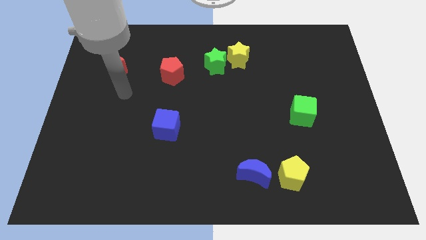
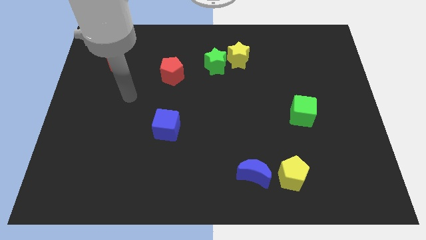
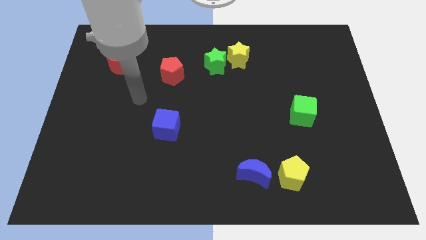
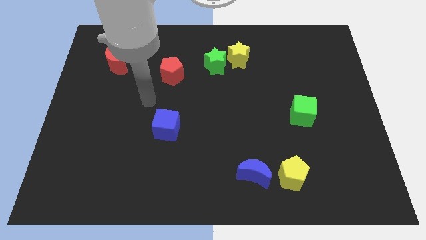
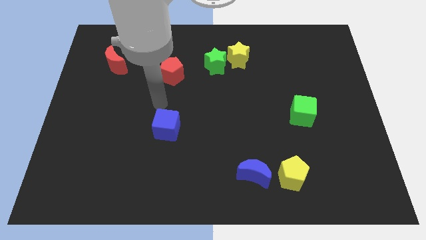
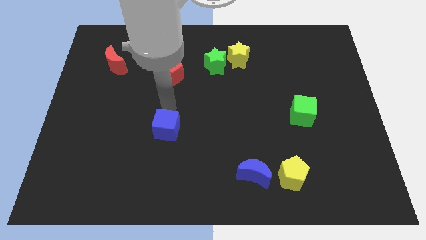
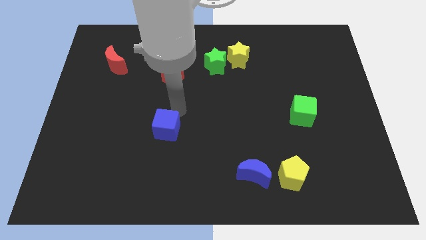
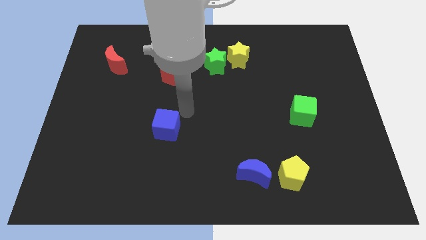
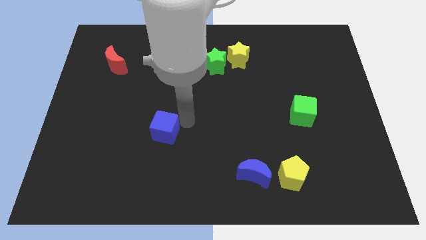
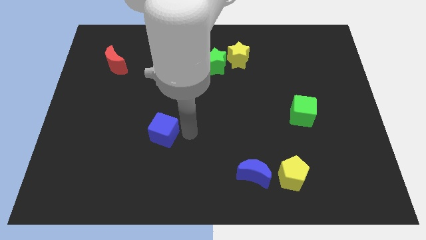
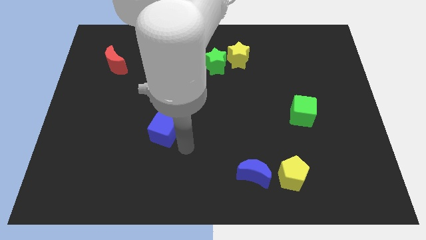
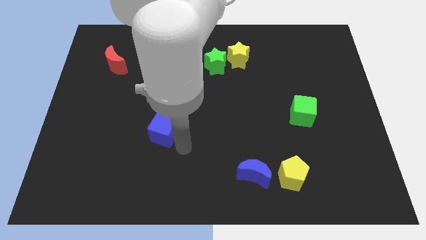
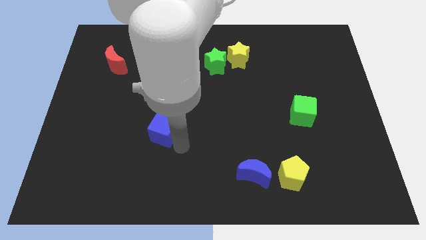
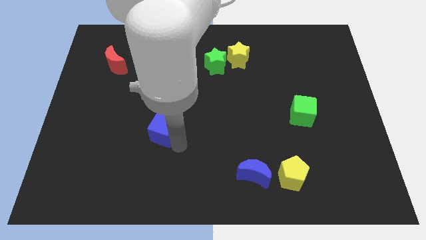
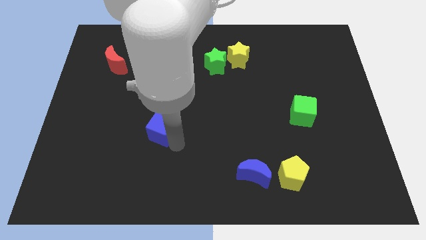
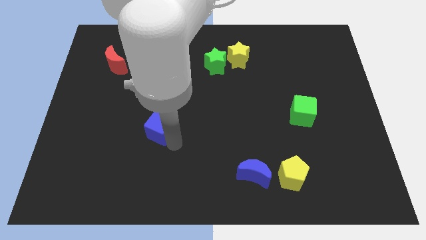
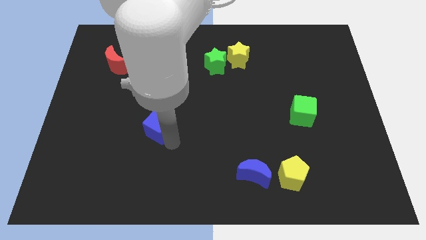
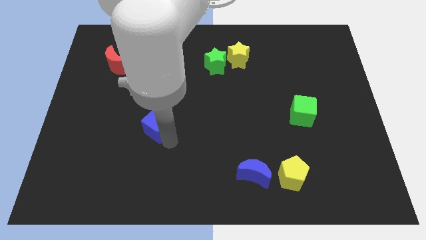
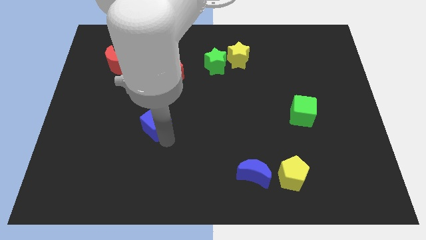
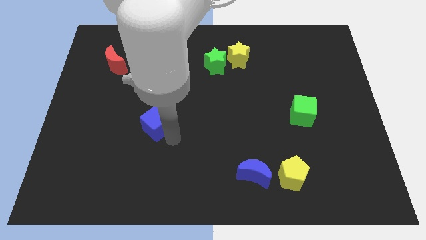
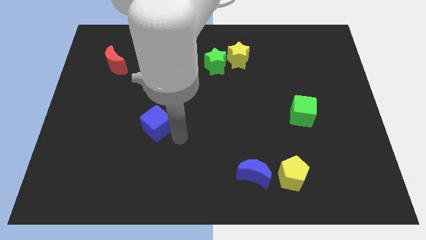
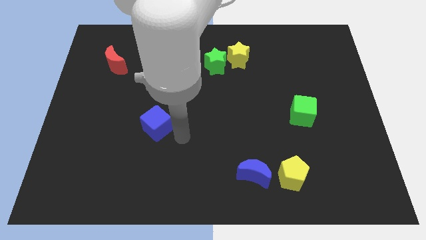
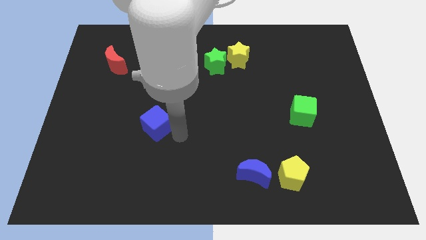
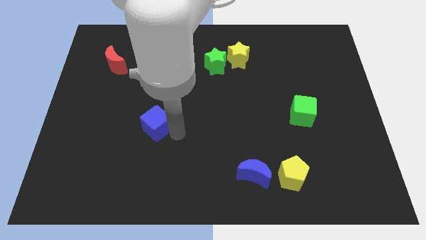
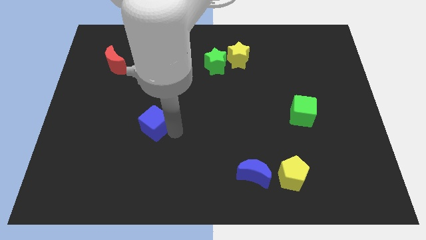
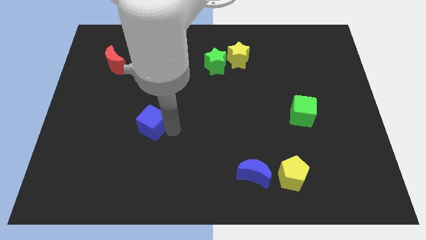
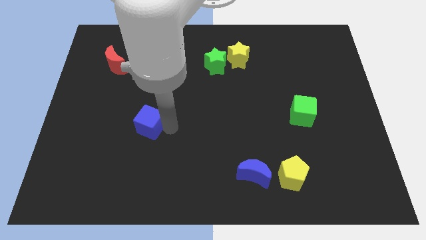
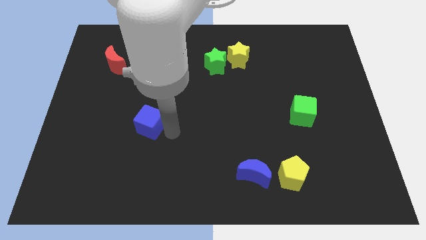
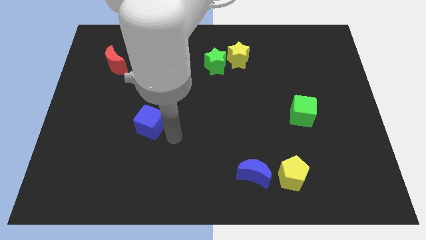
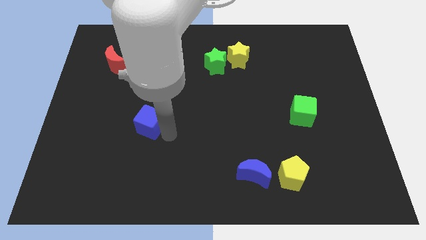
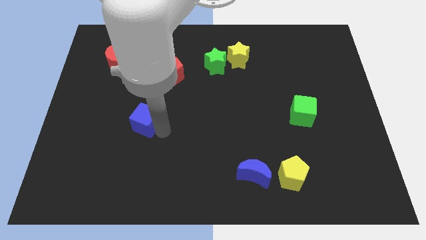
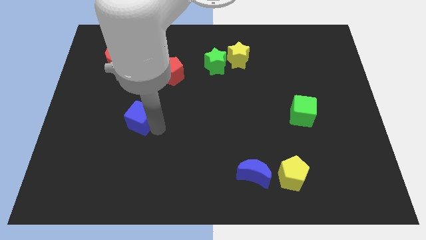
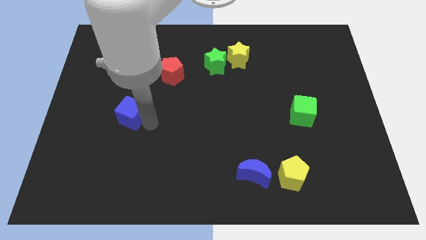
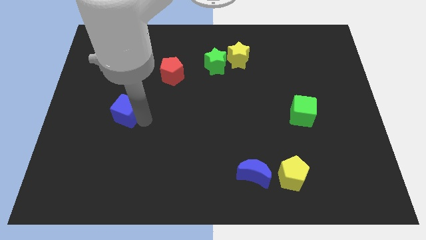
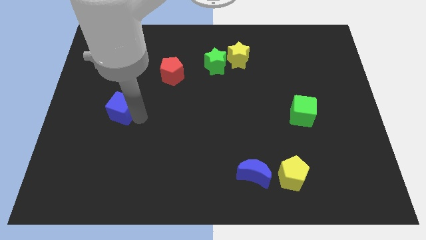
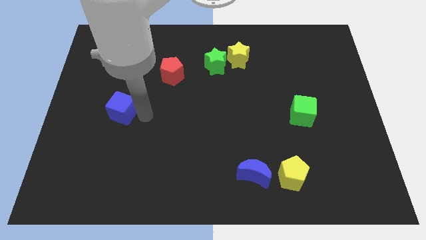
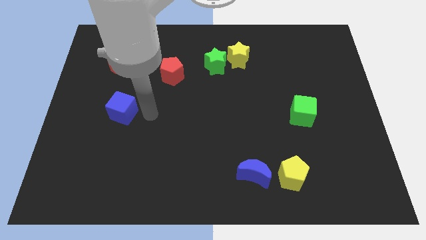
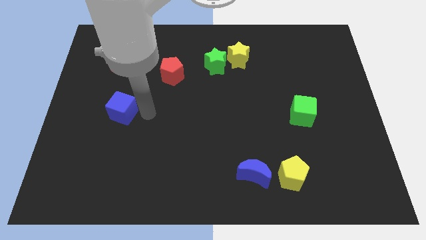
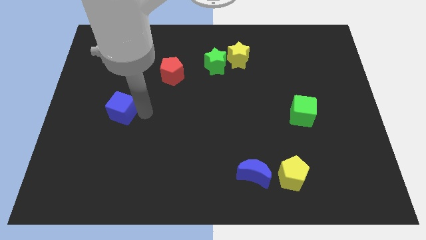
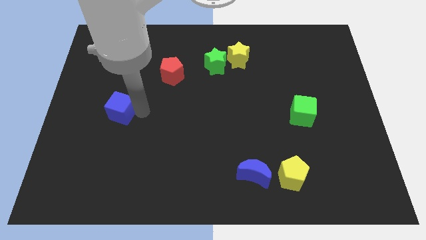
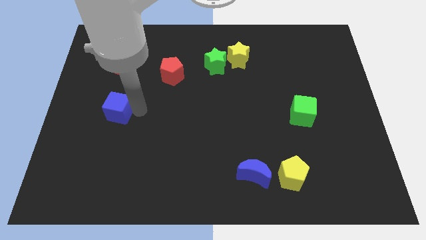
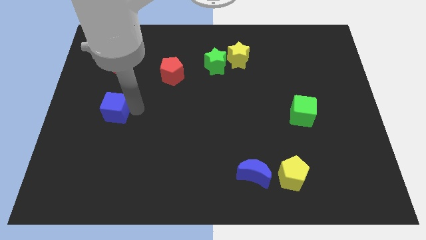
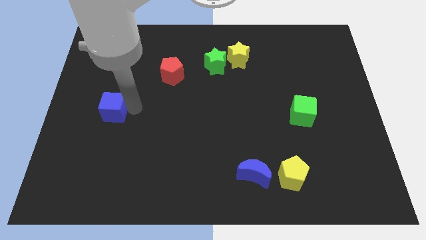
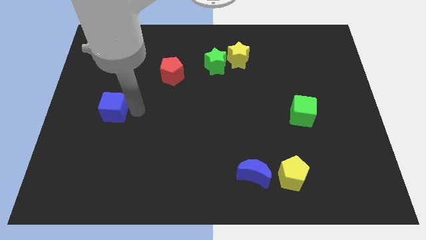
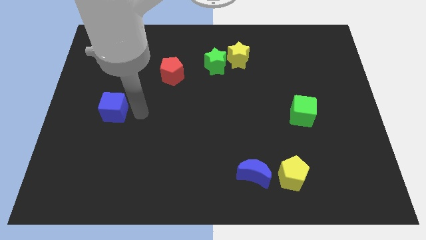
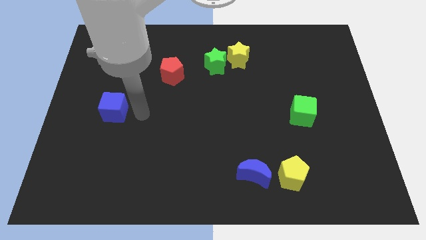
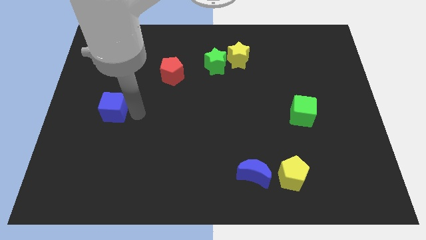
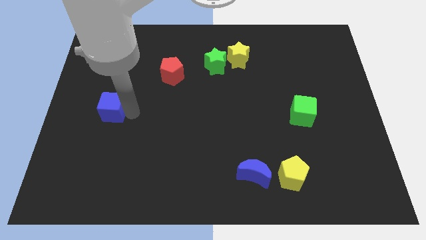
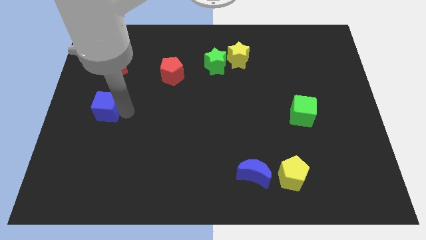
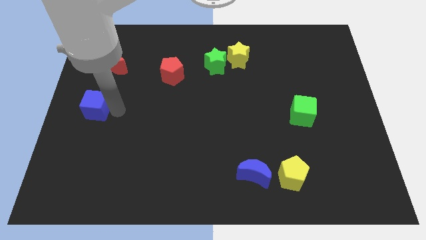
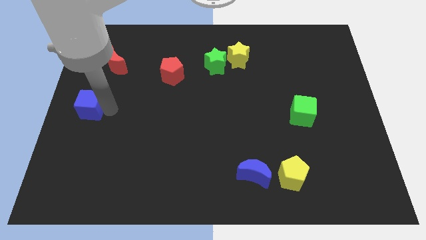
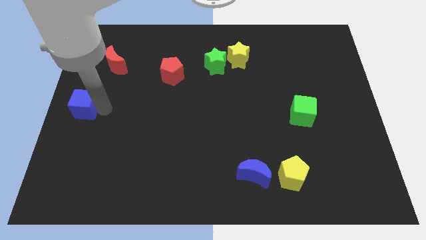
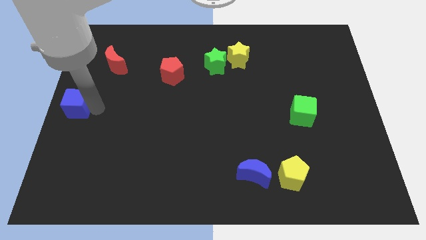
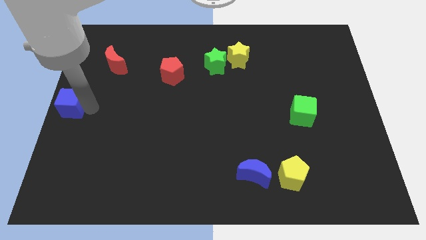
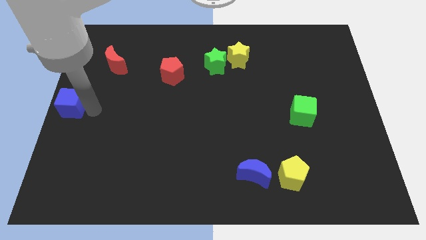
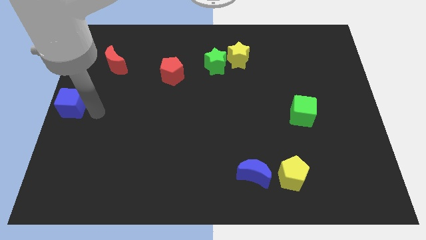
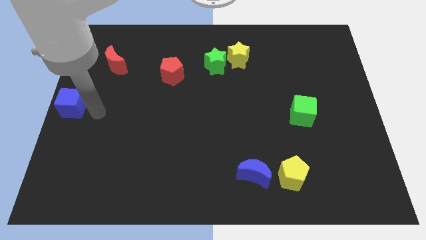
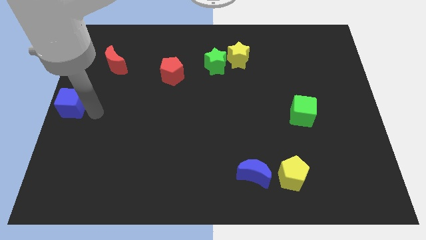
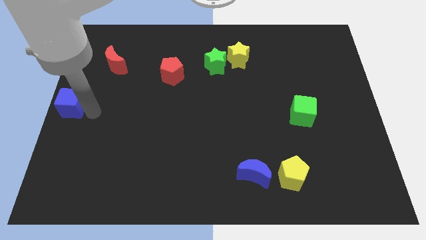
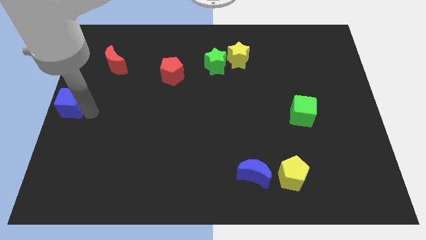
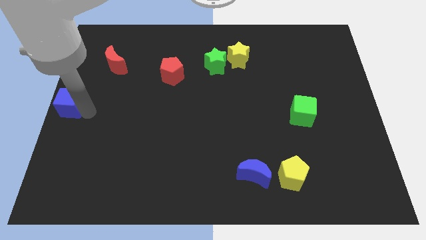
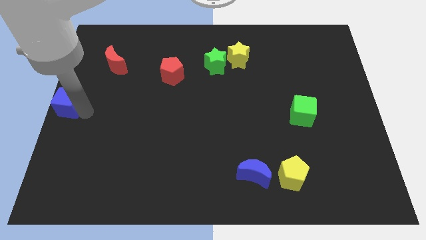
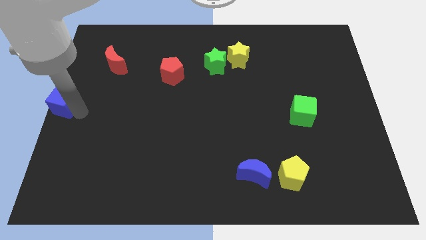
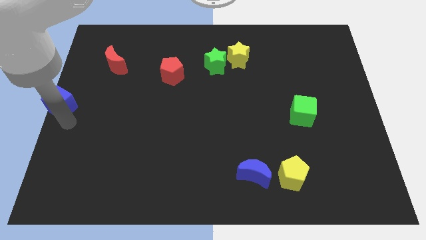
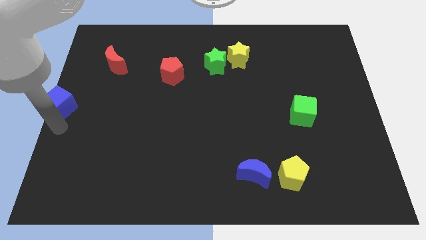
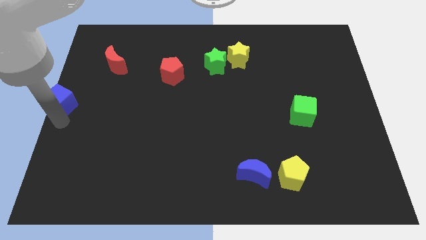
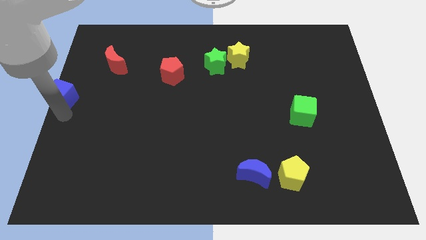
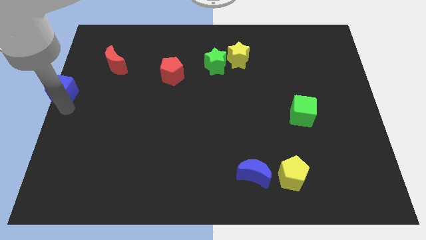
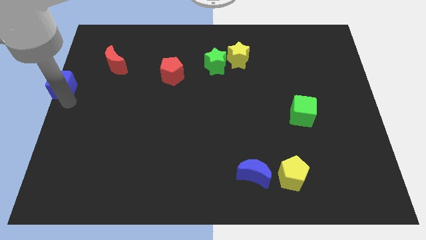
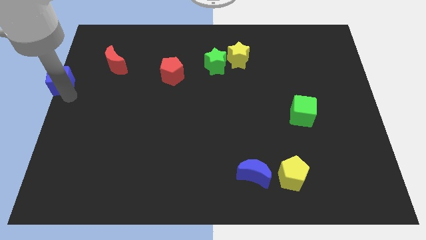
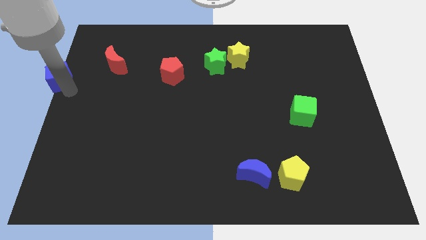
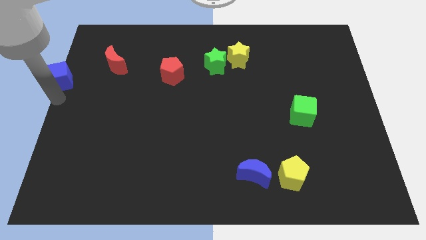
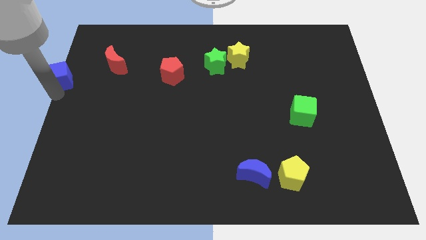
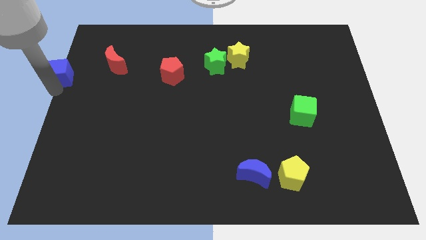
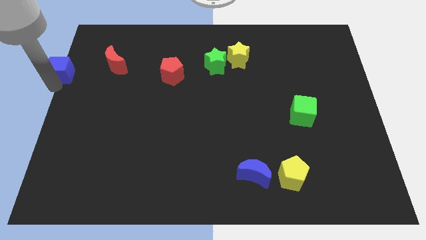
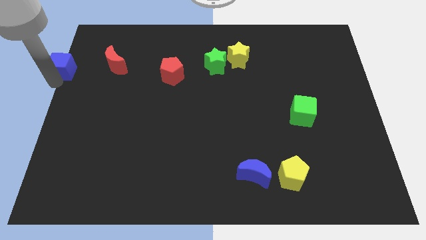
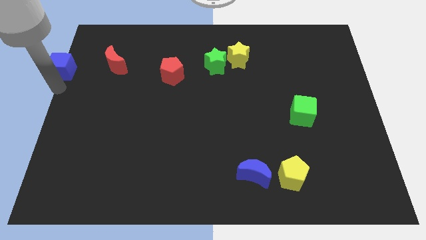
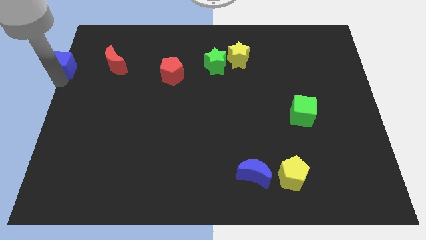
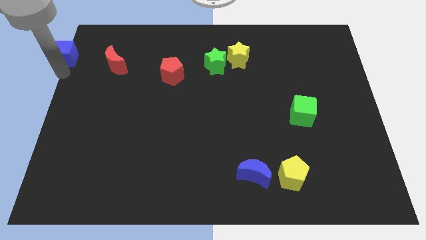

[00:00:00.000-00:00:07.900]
put the blue cube to the top left corner
